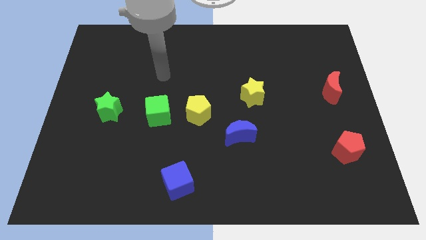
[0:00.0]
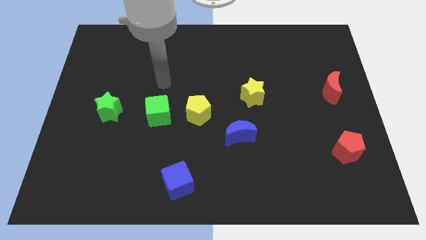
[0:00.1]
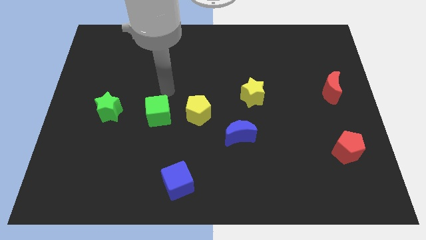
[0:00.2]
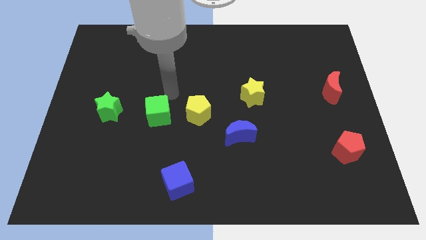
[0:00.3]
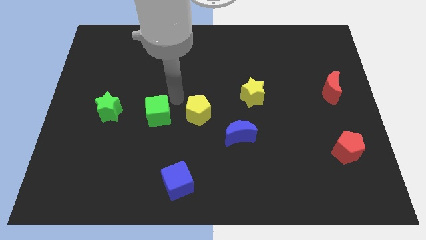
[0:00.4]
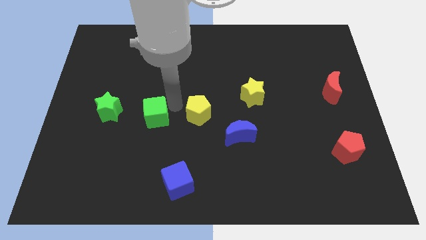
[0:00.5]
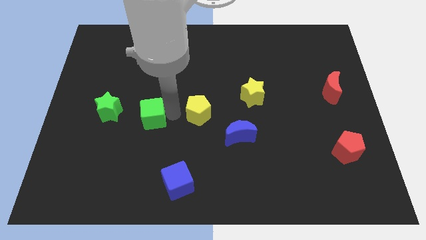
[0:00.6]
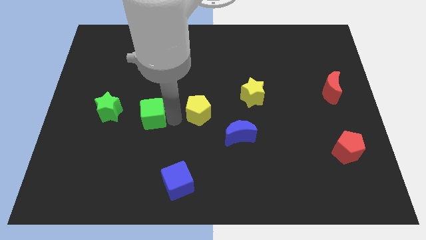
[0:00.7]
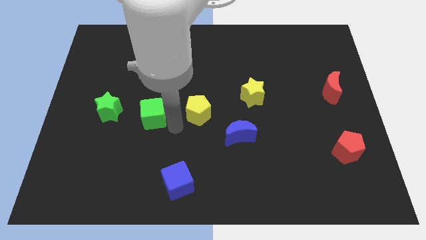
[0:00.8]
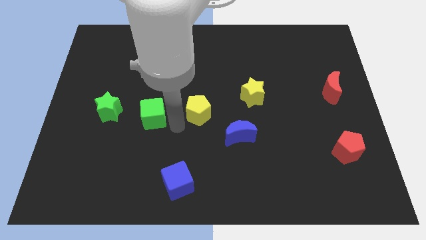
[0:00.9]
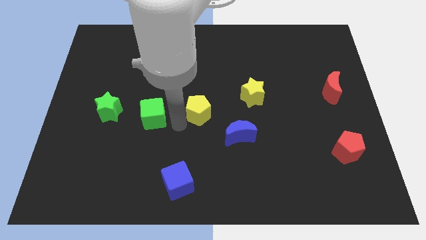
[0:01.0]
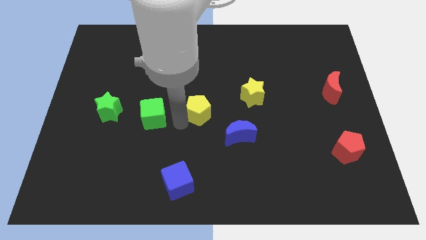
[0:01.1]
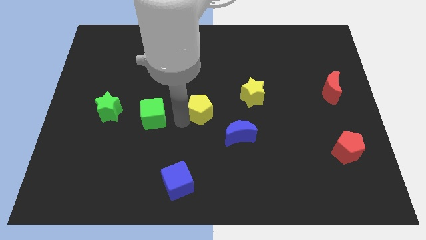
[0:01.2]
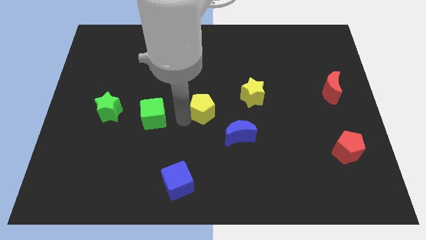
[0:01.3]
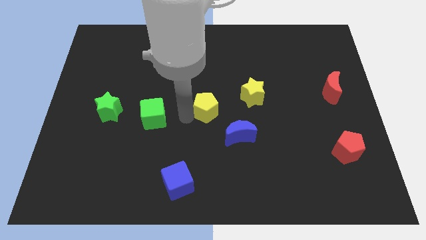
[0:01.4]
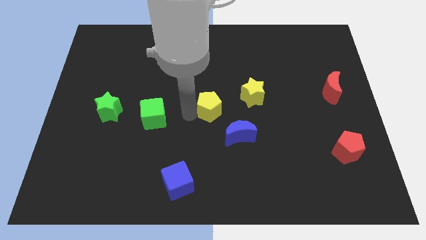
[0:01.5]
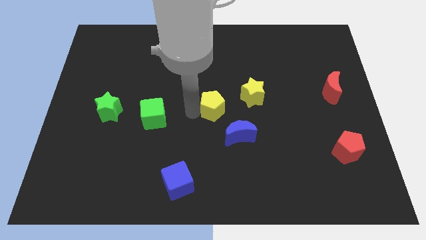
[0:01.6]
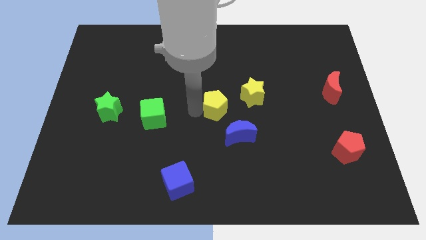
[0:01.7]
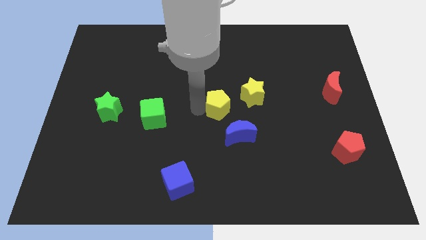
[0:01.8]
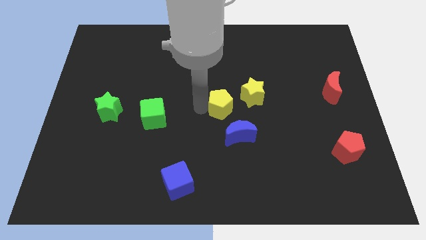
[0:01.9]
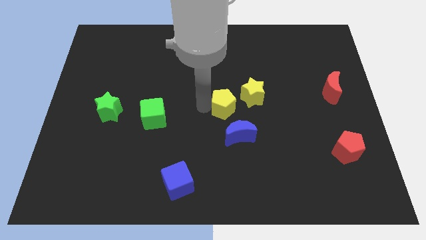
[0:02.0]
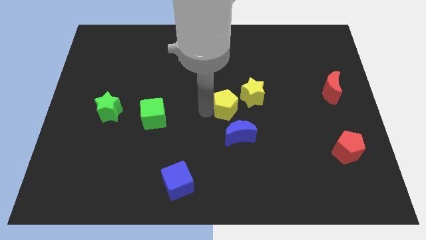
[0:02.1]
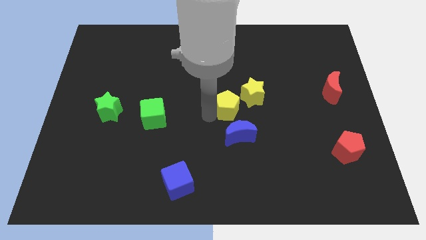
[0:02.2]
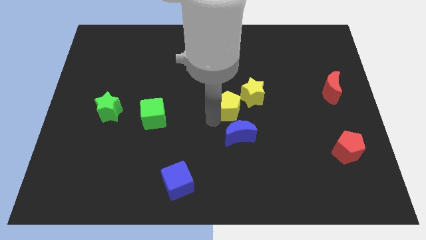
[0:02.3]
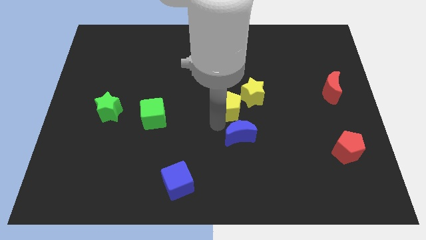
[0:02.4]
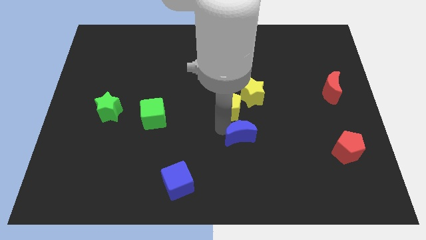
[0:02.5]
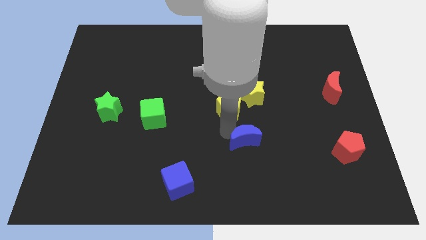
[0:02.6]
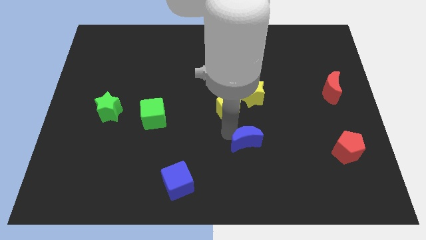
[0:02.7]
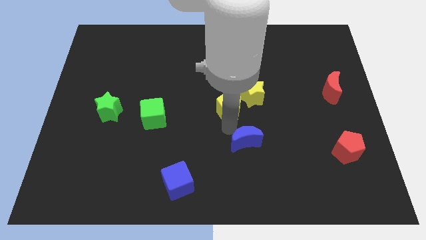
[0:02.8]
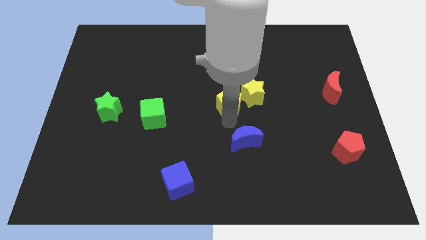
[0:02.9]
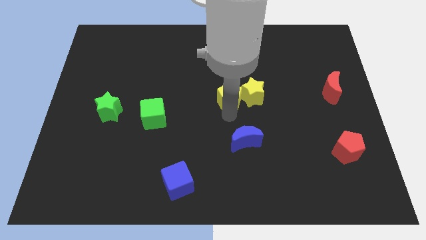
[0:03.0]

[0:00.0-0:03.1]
move the yellow pentagon a little up and then to the right

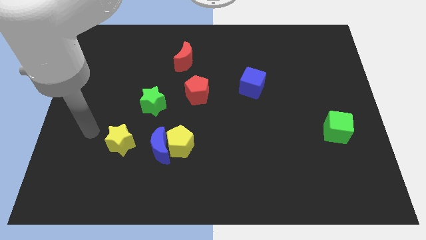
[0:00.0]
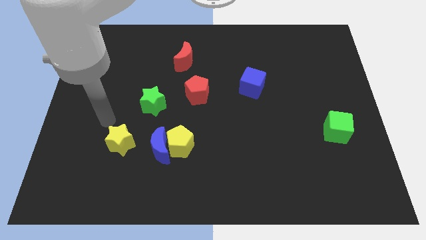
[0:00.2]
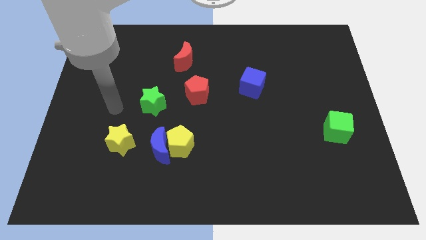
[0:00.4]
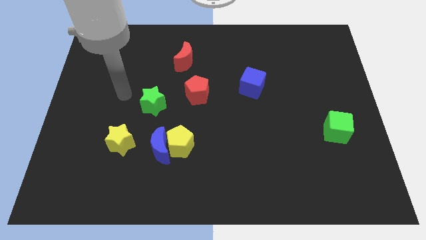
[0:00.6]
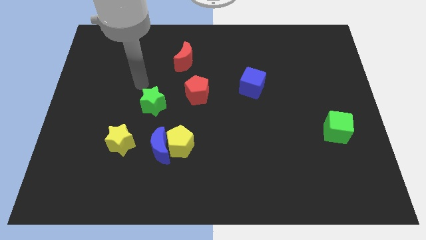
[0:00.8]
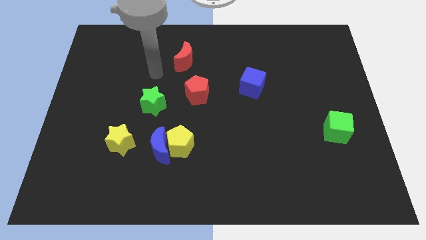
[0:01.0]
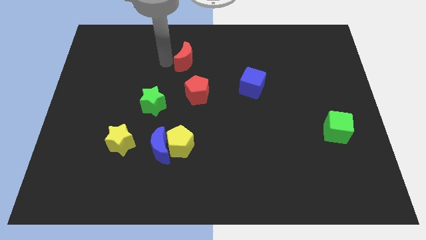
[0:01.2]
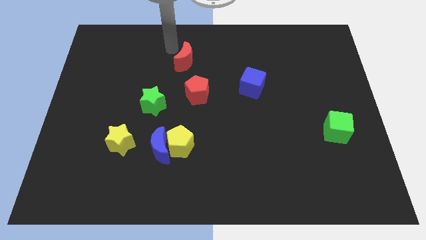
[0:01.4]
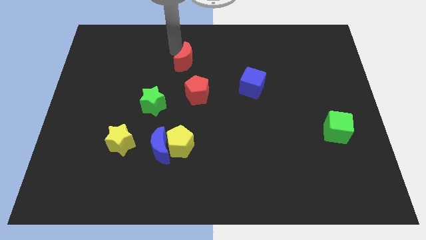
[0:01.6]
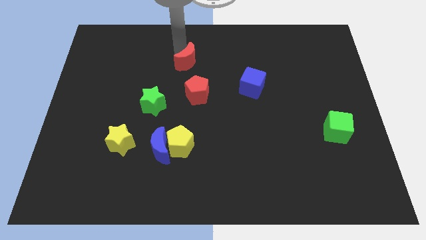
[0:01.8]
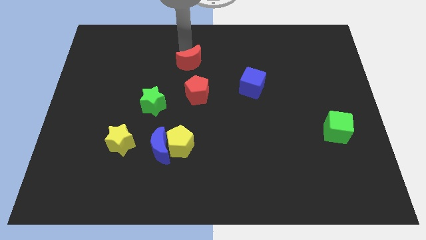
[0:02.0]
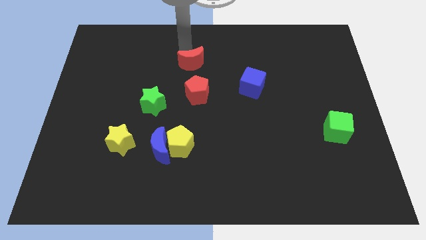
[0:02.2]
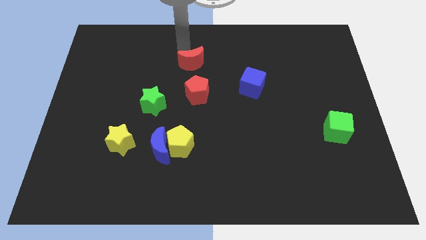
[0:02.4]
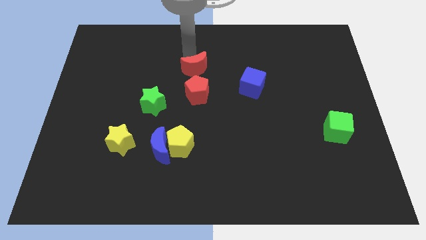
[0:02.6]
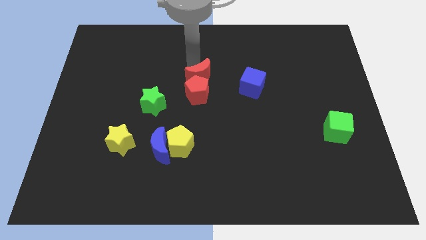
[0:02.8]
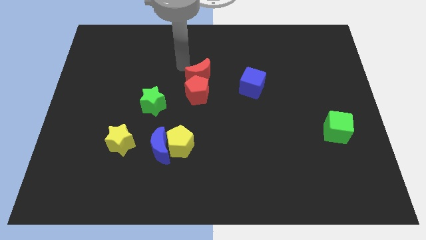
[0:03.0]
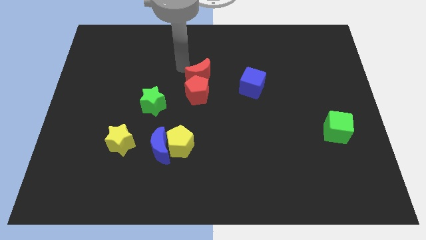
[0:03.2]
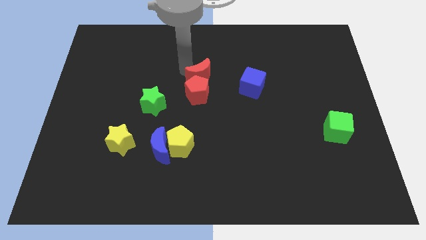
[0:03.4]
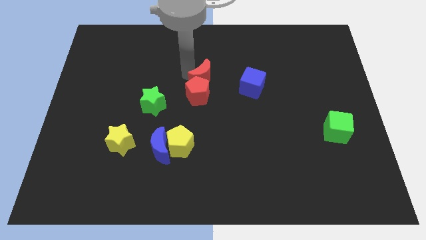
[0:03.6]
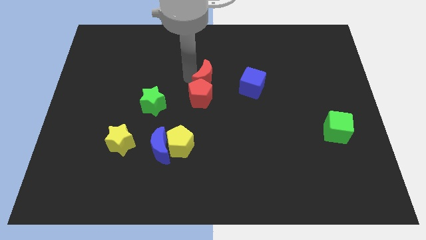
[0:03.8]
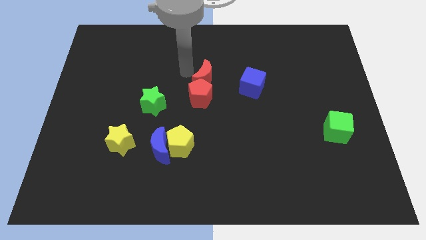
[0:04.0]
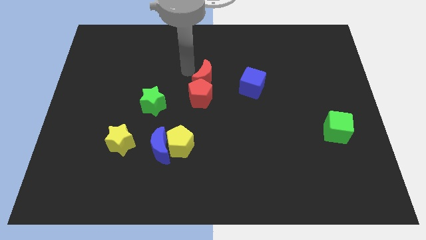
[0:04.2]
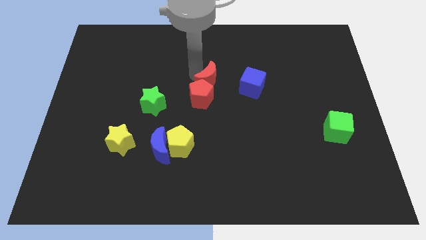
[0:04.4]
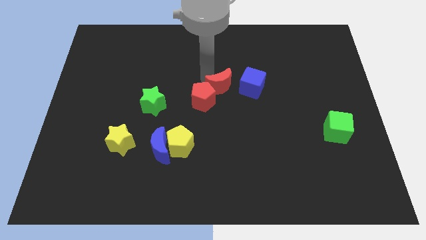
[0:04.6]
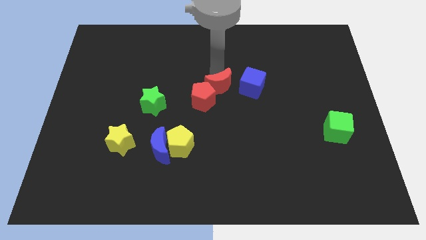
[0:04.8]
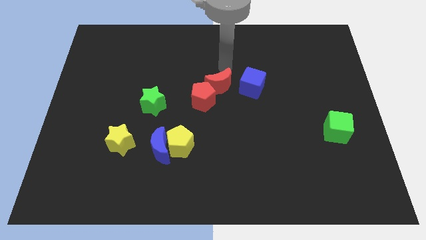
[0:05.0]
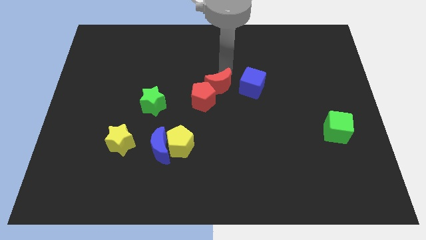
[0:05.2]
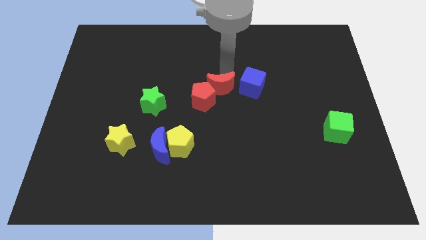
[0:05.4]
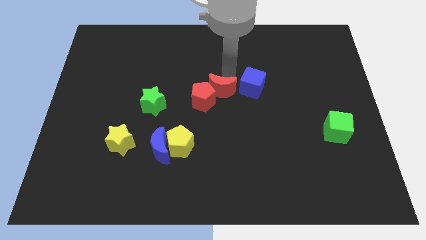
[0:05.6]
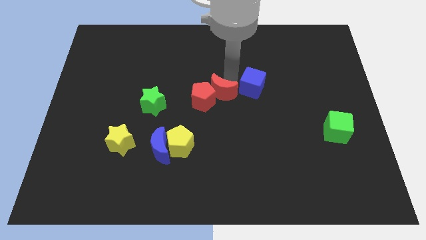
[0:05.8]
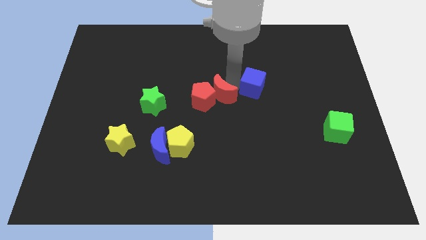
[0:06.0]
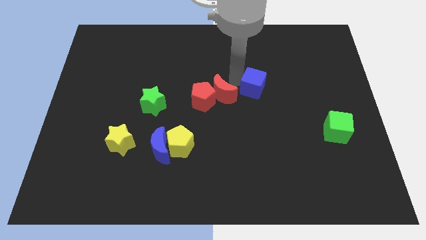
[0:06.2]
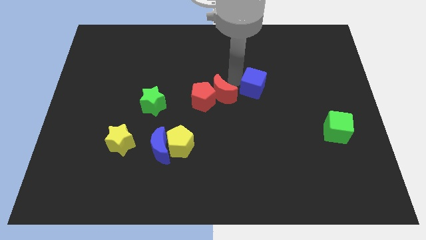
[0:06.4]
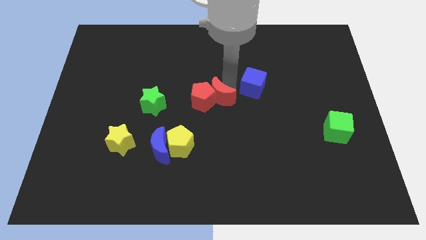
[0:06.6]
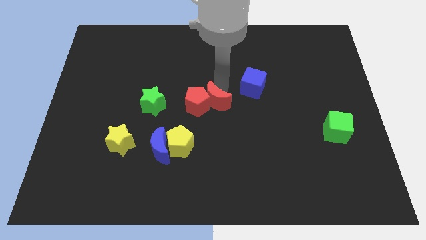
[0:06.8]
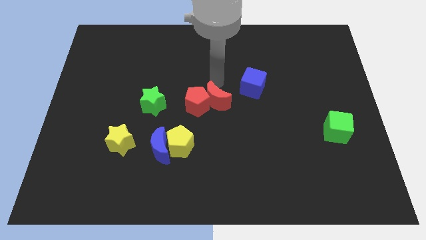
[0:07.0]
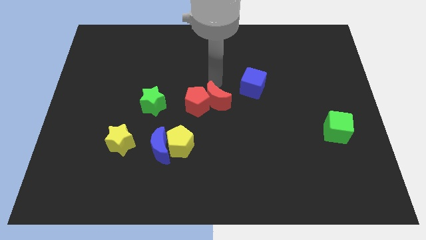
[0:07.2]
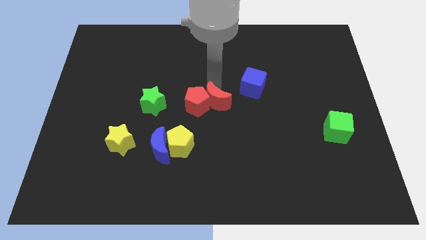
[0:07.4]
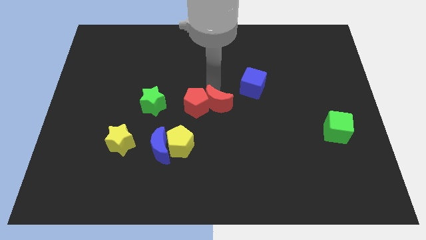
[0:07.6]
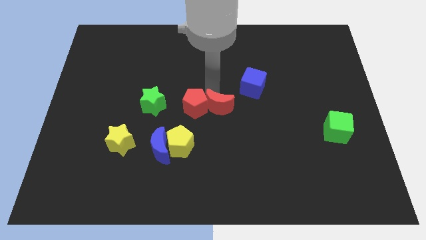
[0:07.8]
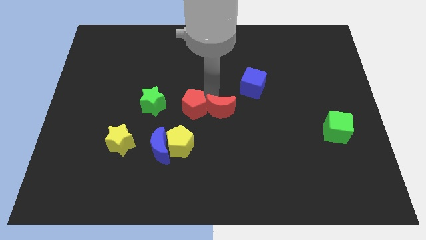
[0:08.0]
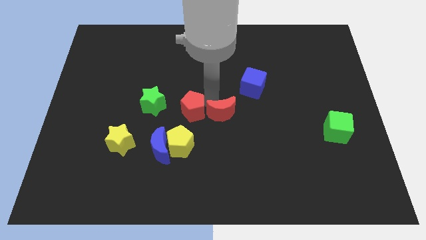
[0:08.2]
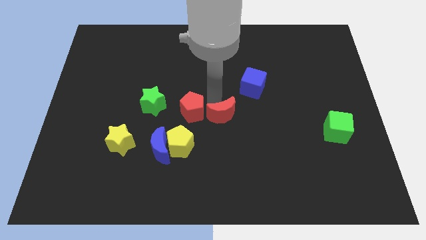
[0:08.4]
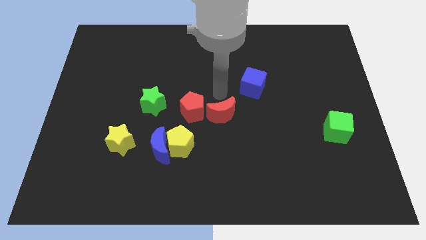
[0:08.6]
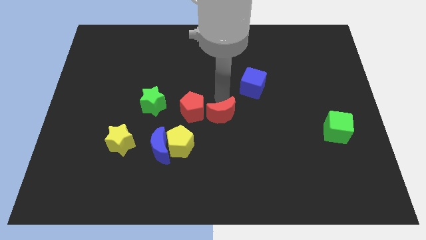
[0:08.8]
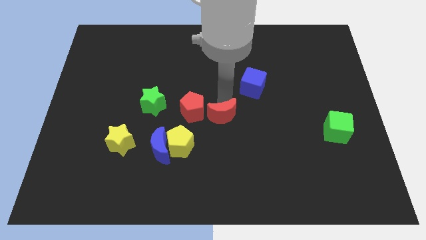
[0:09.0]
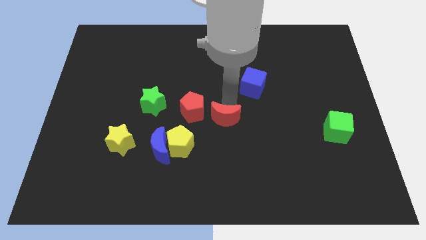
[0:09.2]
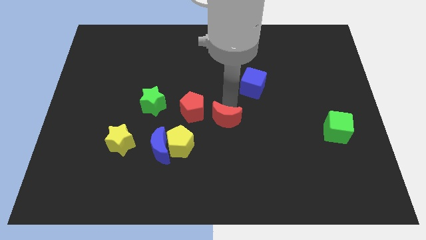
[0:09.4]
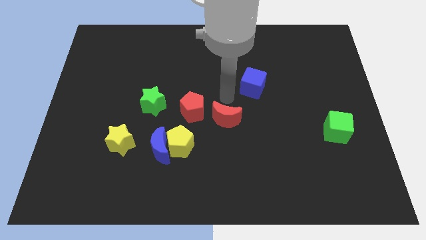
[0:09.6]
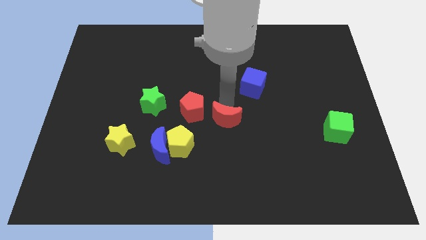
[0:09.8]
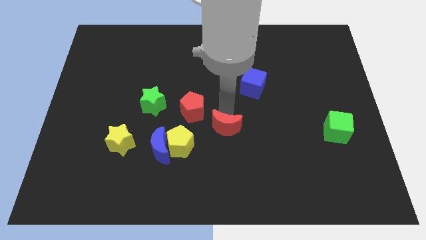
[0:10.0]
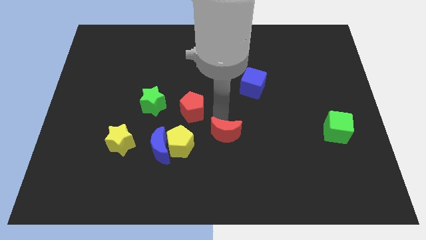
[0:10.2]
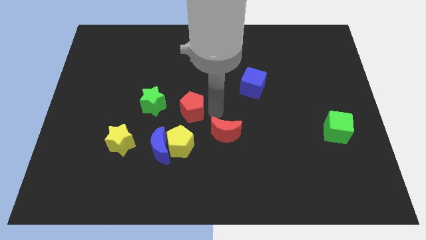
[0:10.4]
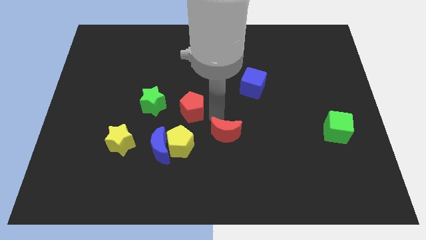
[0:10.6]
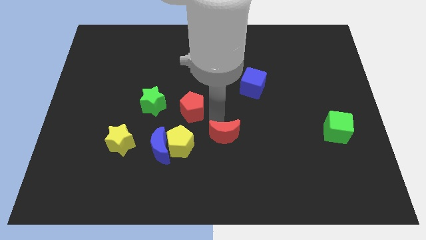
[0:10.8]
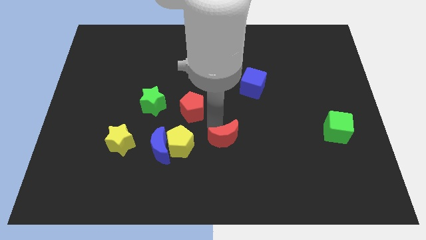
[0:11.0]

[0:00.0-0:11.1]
slide the red moon downwards
